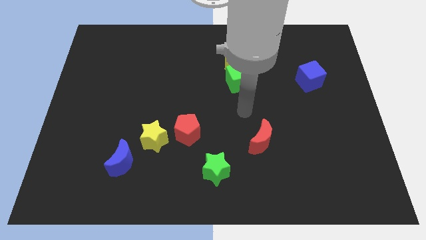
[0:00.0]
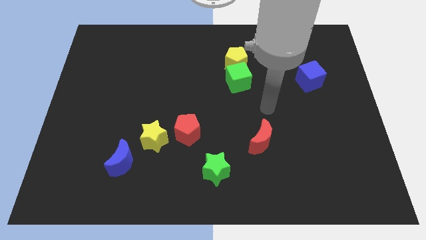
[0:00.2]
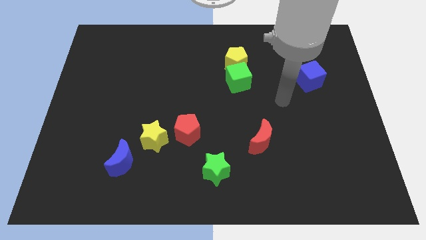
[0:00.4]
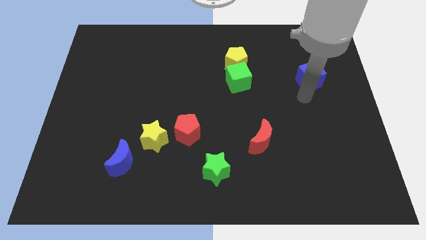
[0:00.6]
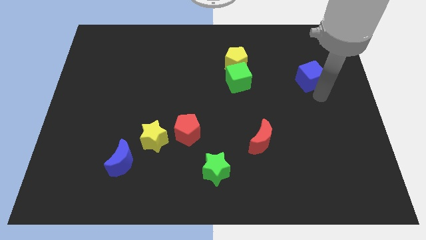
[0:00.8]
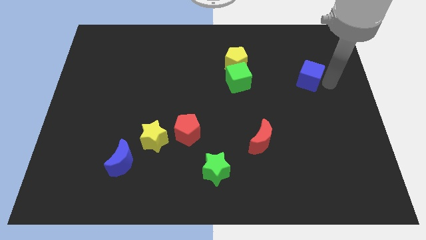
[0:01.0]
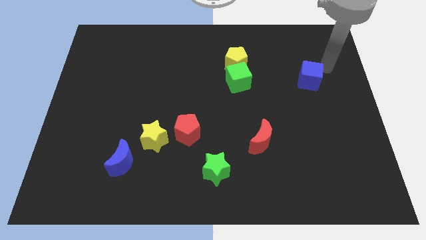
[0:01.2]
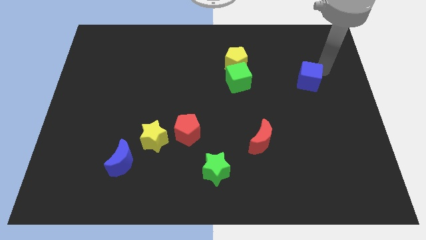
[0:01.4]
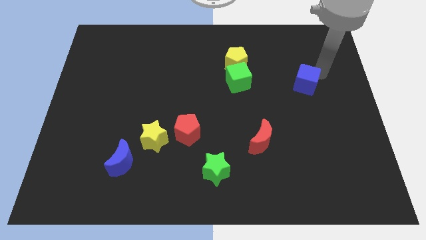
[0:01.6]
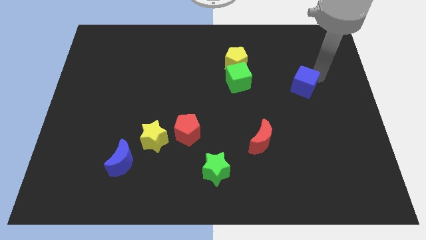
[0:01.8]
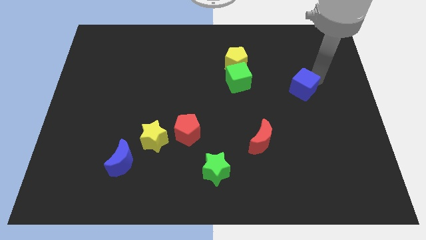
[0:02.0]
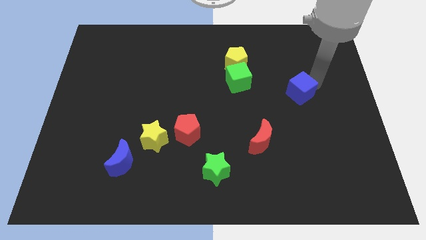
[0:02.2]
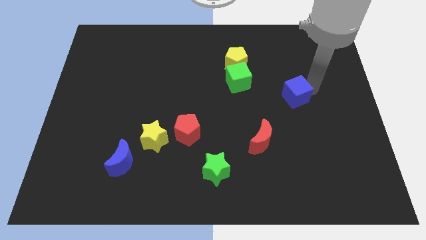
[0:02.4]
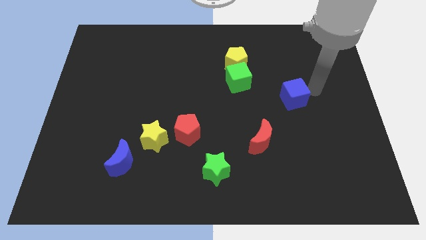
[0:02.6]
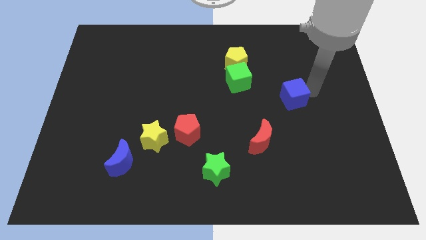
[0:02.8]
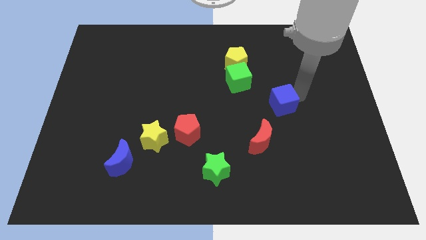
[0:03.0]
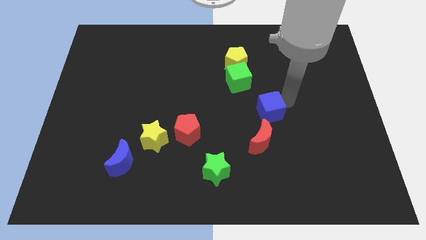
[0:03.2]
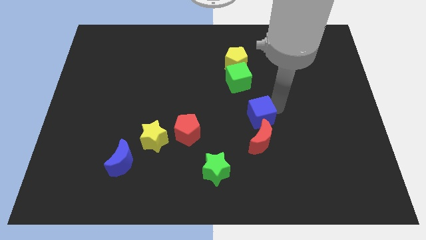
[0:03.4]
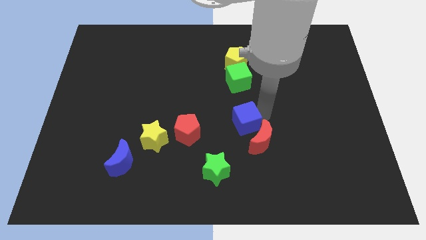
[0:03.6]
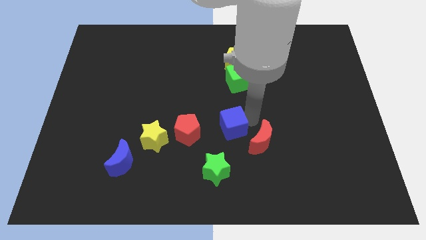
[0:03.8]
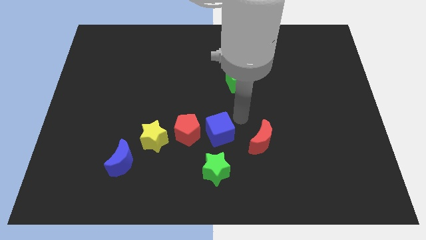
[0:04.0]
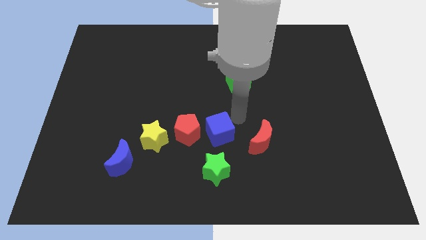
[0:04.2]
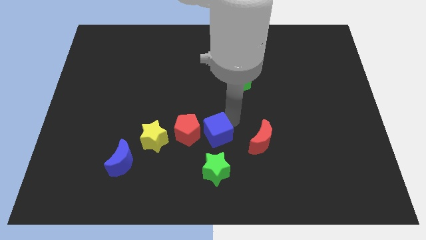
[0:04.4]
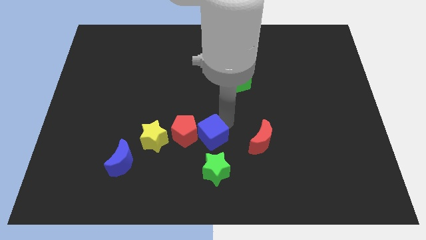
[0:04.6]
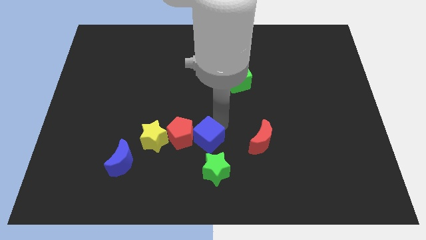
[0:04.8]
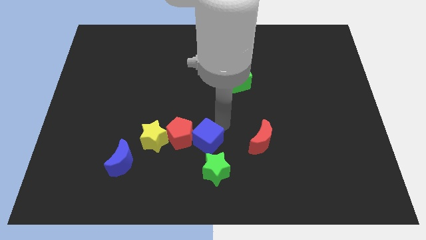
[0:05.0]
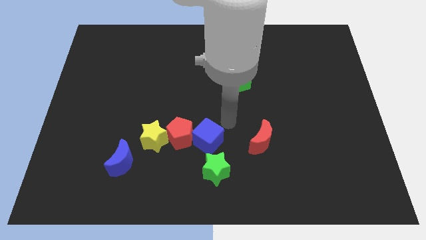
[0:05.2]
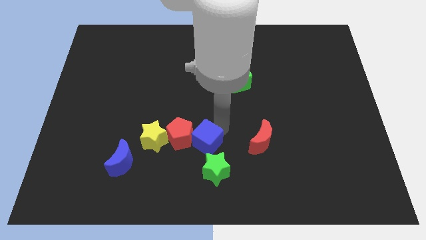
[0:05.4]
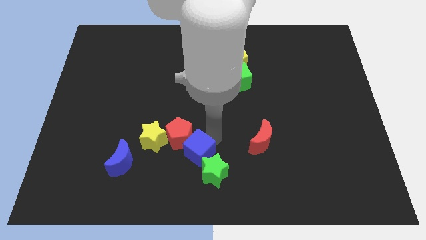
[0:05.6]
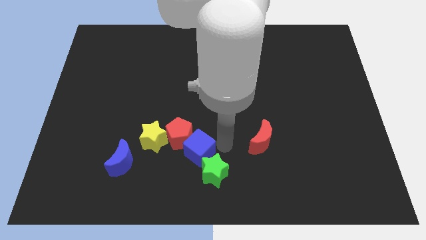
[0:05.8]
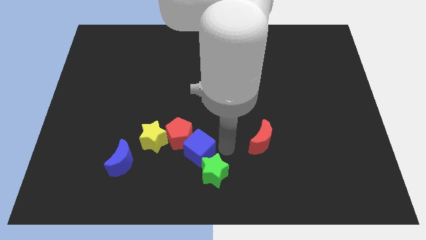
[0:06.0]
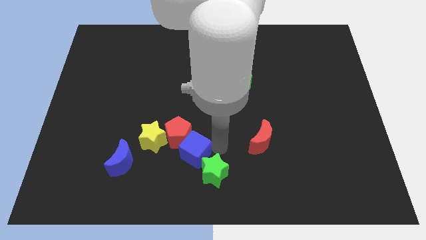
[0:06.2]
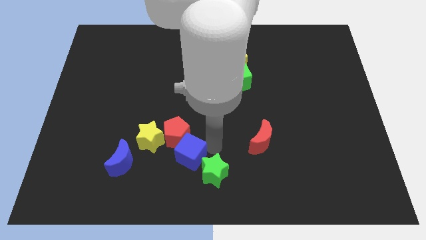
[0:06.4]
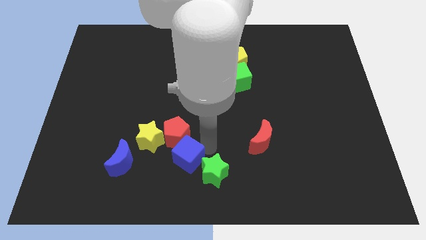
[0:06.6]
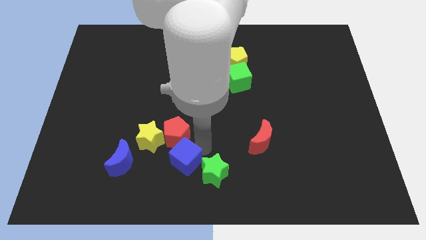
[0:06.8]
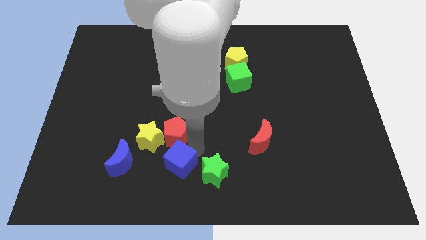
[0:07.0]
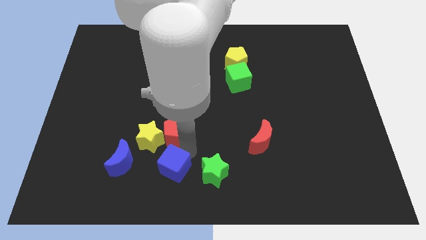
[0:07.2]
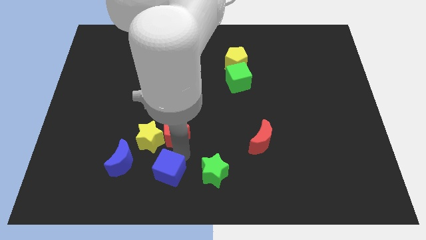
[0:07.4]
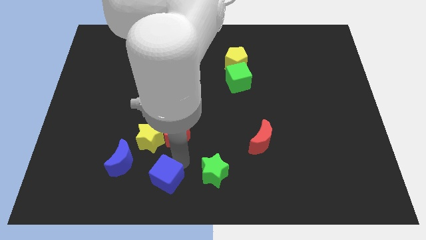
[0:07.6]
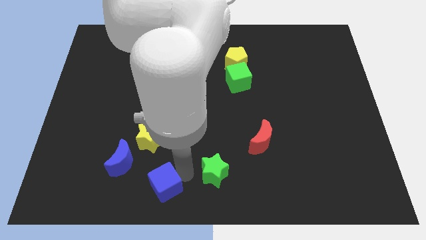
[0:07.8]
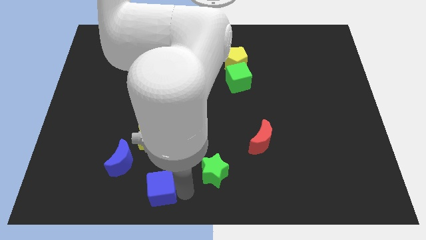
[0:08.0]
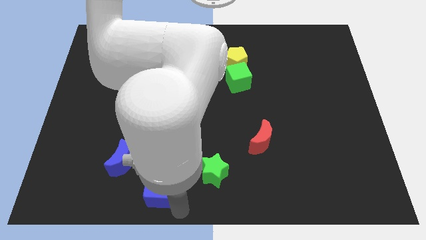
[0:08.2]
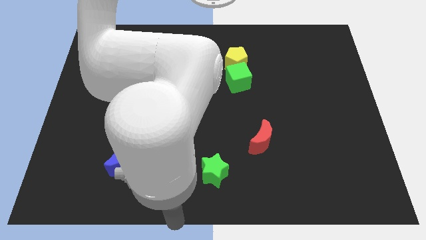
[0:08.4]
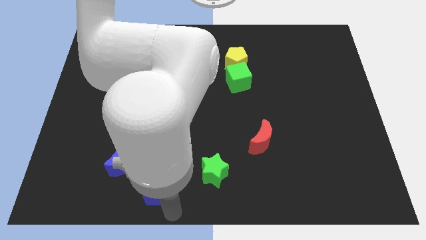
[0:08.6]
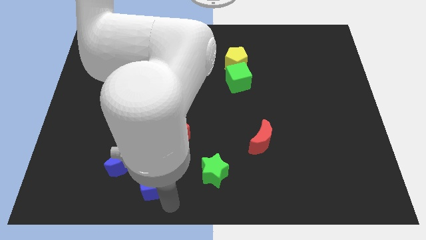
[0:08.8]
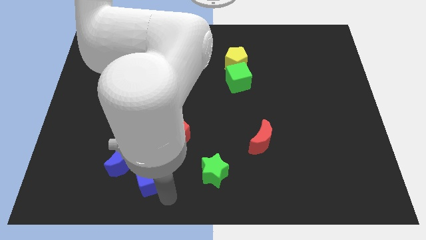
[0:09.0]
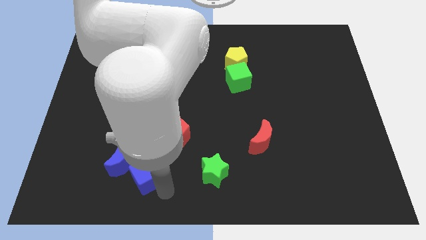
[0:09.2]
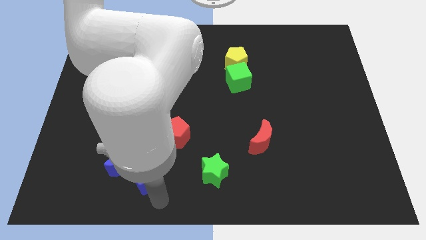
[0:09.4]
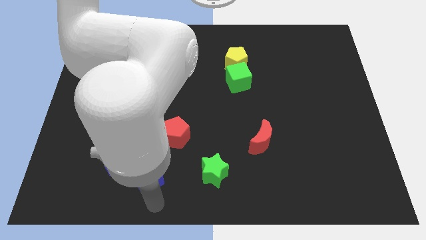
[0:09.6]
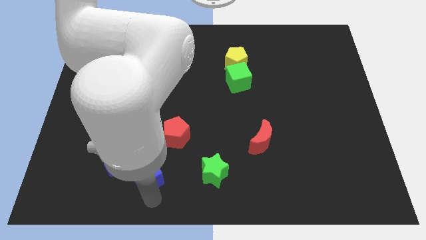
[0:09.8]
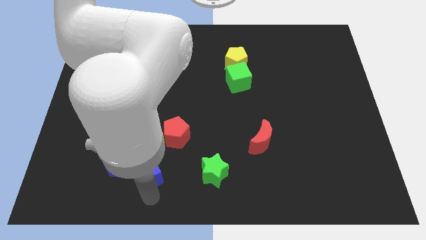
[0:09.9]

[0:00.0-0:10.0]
push the blue cube next to the blue moon

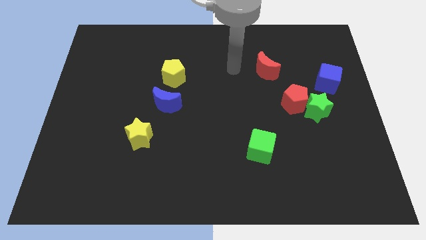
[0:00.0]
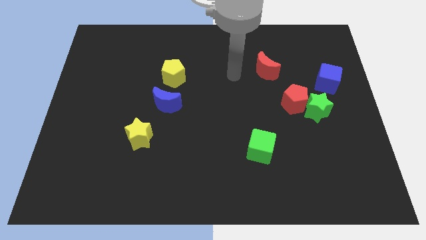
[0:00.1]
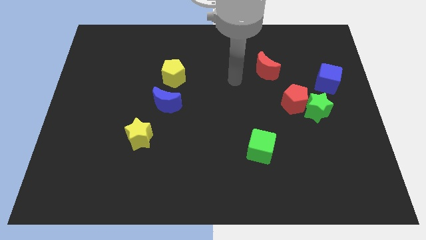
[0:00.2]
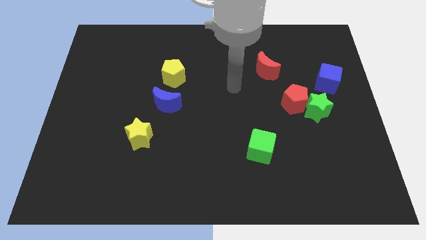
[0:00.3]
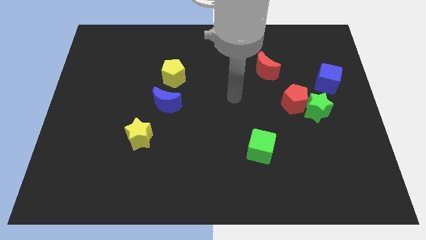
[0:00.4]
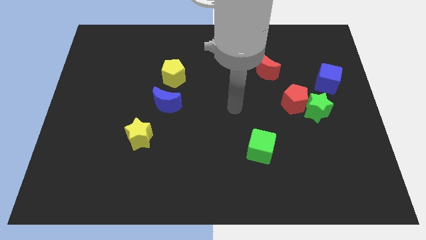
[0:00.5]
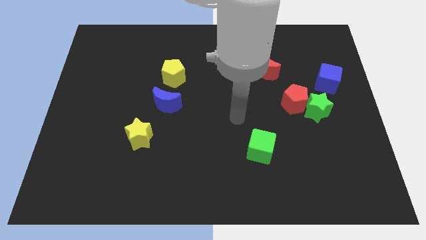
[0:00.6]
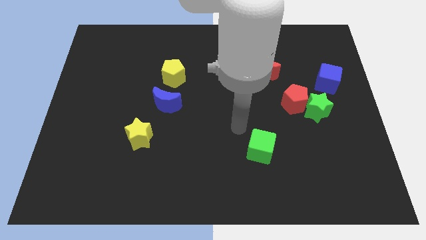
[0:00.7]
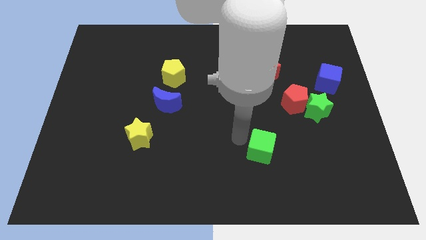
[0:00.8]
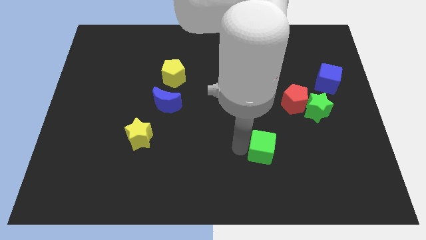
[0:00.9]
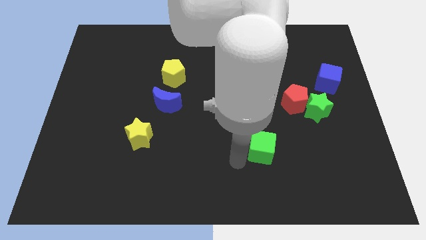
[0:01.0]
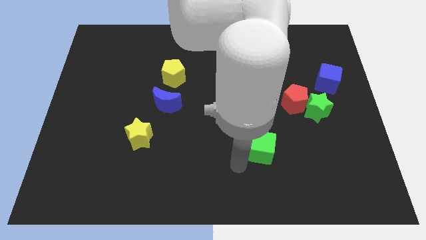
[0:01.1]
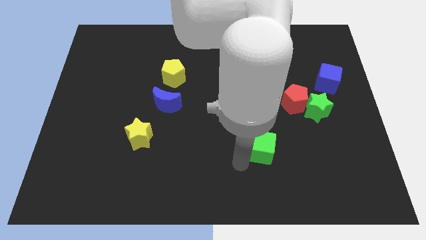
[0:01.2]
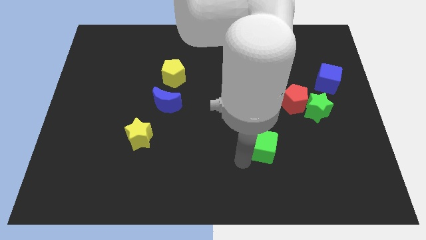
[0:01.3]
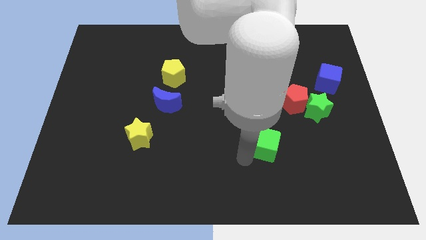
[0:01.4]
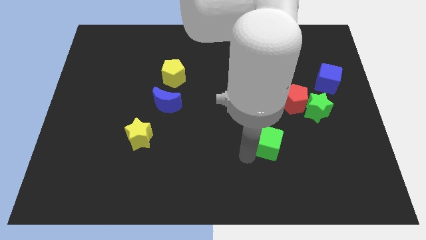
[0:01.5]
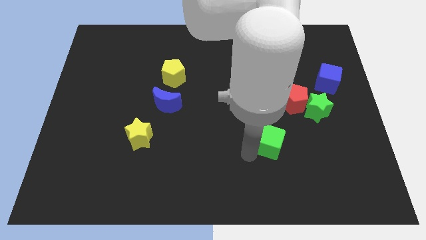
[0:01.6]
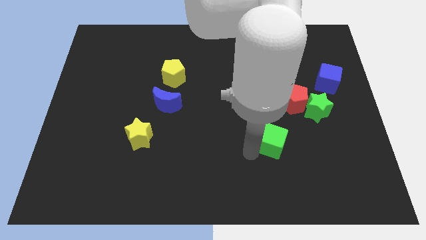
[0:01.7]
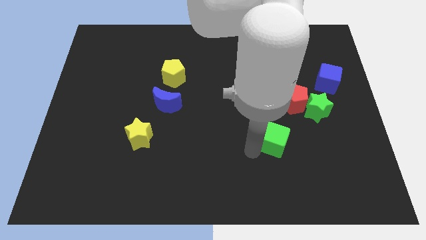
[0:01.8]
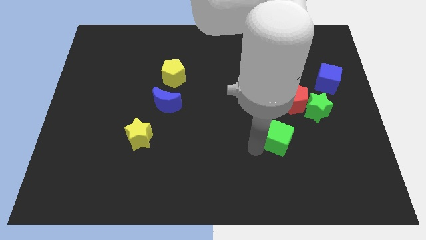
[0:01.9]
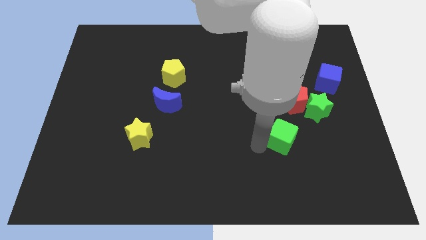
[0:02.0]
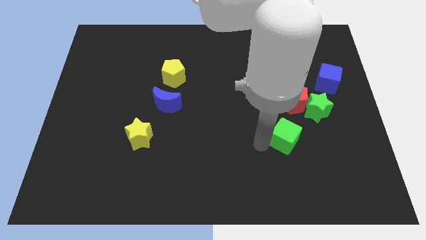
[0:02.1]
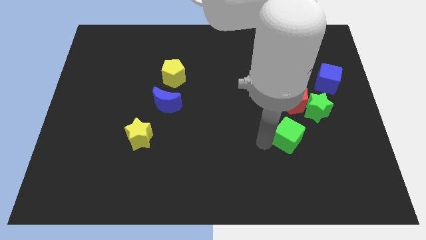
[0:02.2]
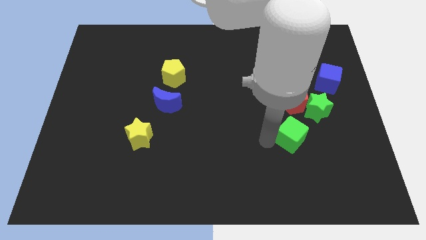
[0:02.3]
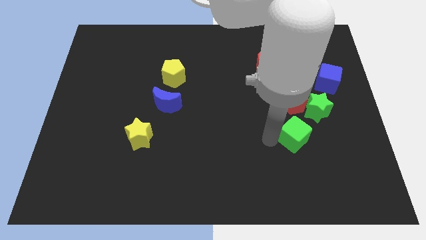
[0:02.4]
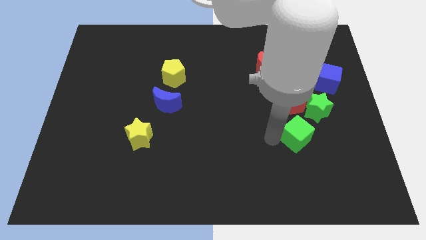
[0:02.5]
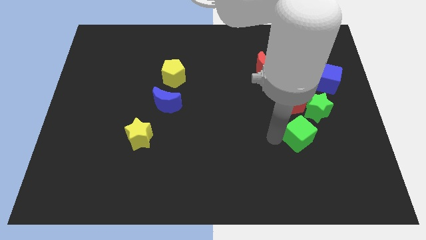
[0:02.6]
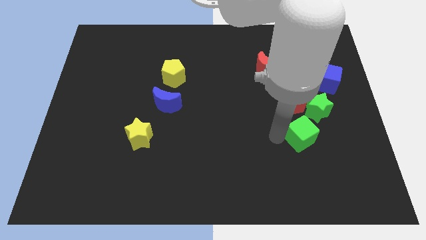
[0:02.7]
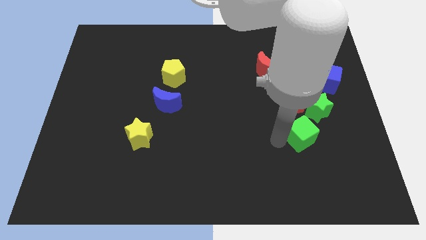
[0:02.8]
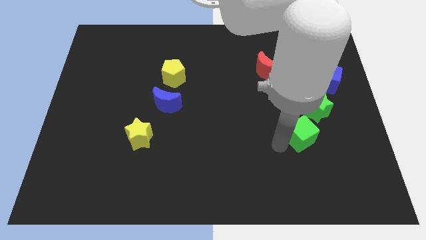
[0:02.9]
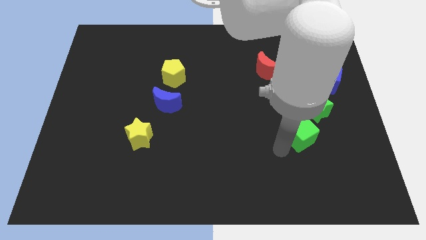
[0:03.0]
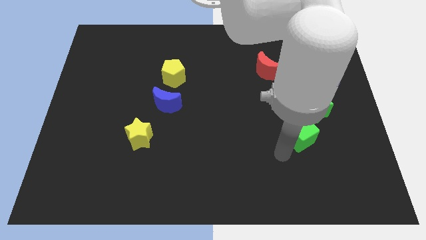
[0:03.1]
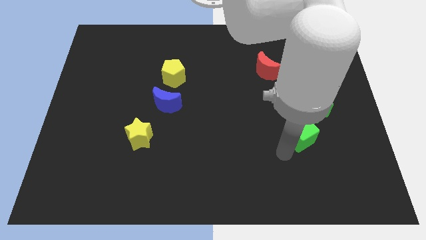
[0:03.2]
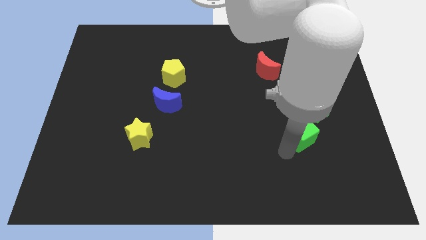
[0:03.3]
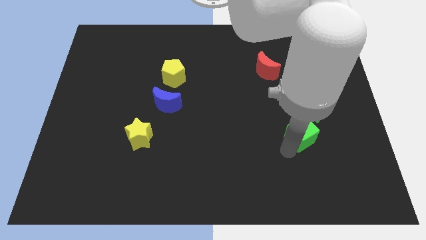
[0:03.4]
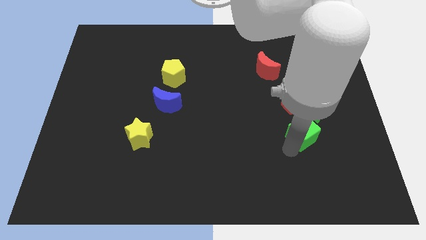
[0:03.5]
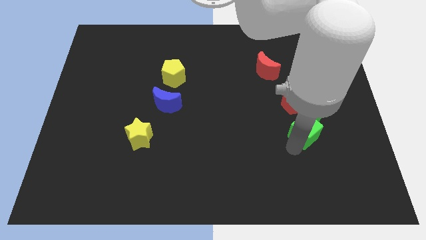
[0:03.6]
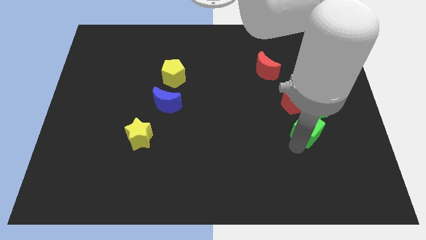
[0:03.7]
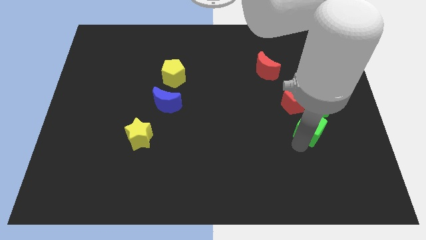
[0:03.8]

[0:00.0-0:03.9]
push the green cube towards the green star
